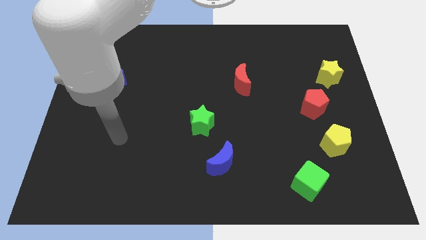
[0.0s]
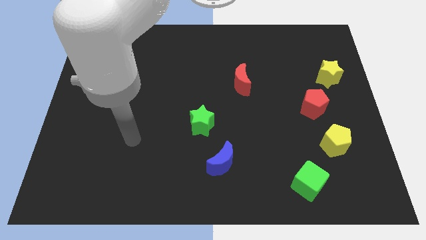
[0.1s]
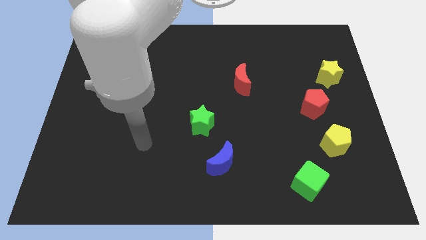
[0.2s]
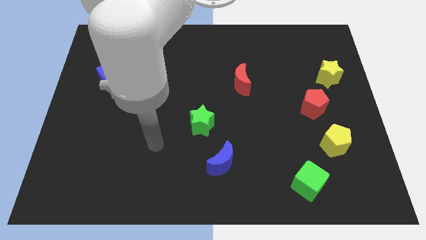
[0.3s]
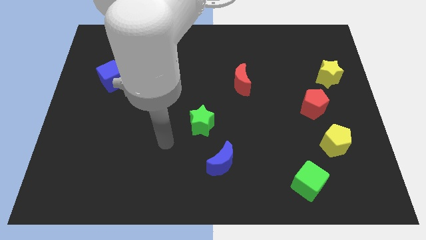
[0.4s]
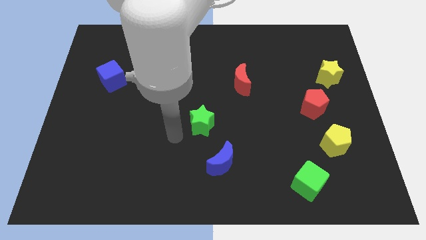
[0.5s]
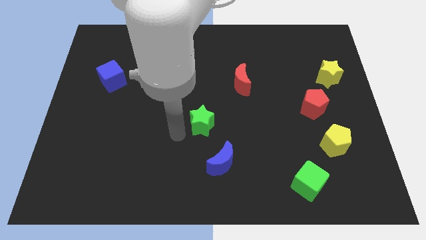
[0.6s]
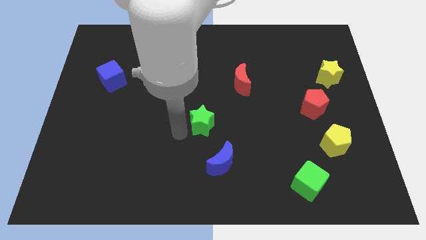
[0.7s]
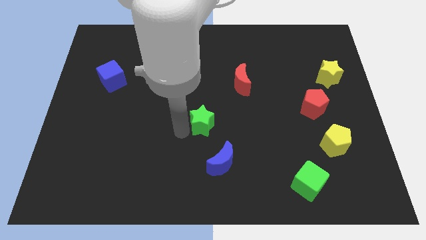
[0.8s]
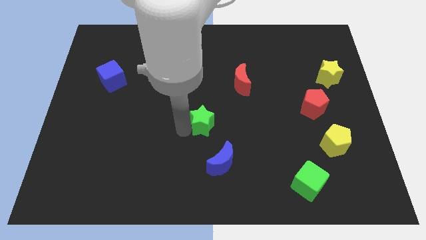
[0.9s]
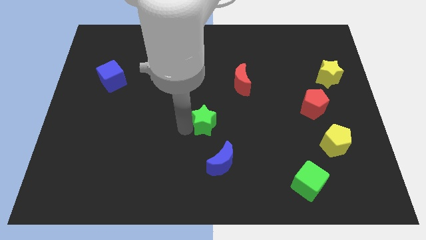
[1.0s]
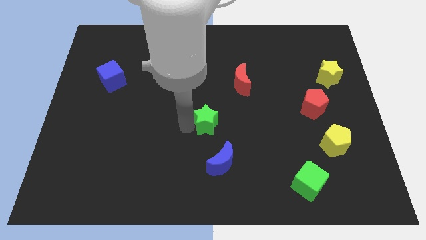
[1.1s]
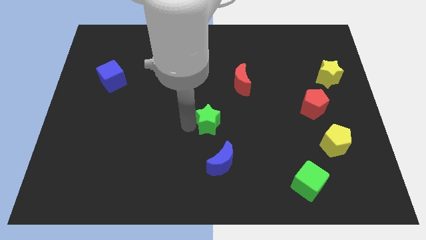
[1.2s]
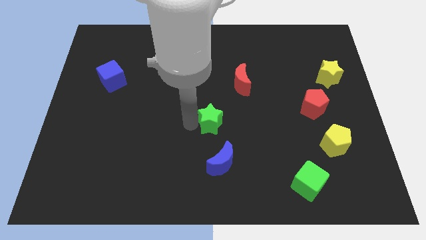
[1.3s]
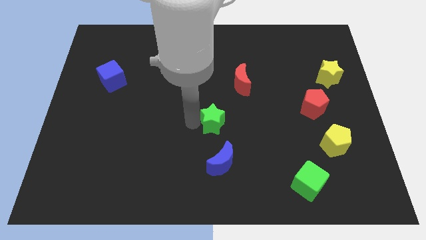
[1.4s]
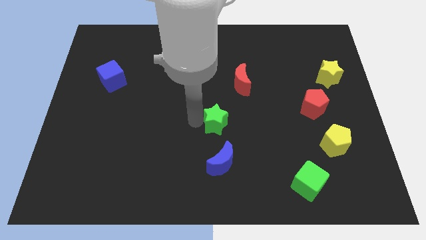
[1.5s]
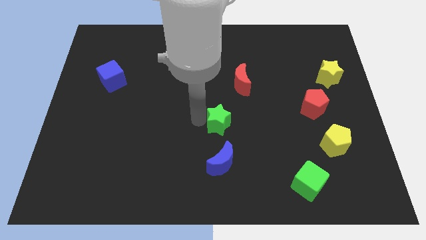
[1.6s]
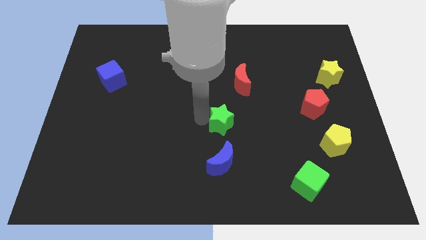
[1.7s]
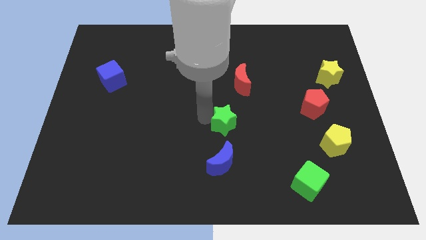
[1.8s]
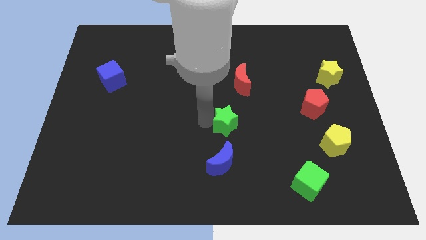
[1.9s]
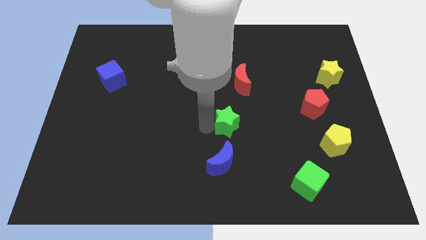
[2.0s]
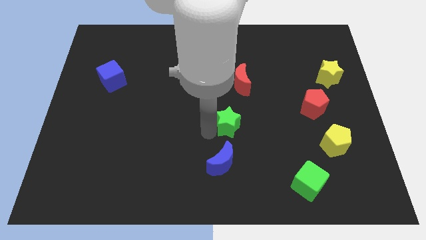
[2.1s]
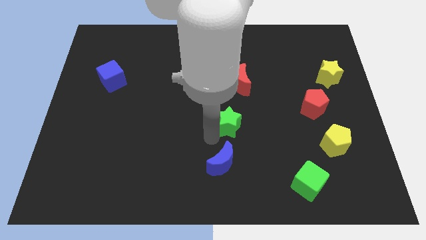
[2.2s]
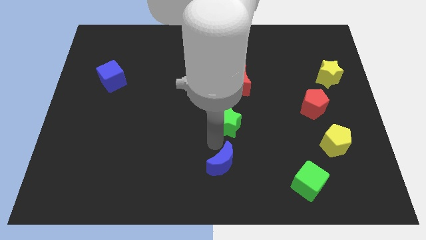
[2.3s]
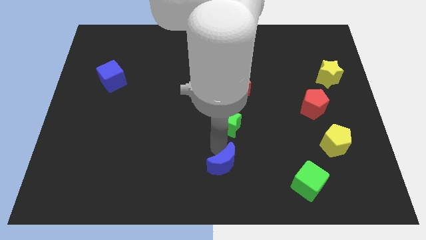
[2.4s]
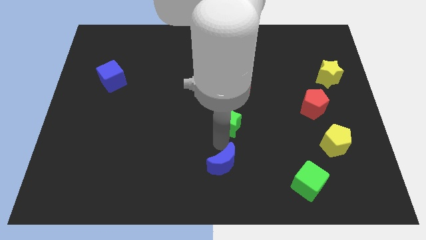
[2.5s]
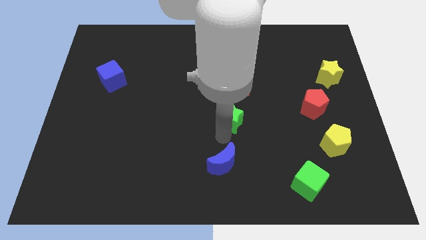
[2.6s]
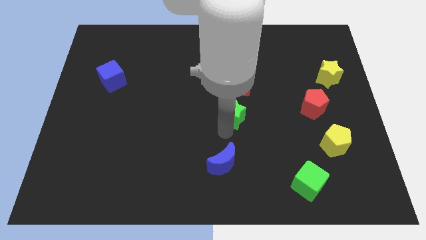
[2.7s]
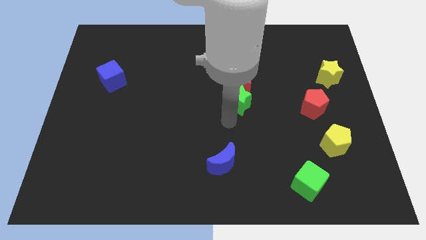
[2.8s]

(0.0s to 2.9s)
slightly slide the green star diagonally upwards and right

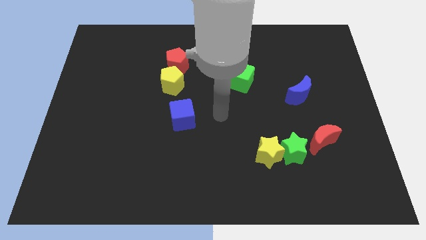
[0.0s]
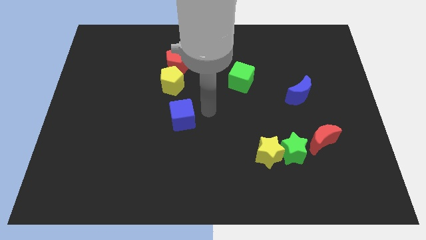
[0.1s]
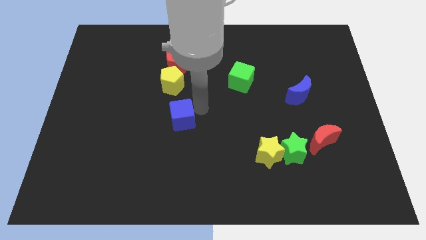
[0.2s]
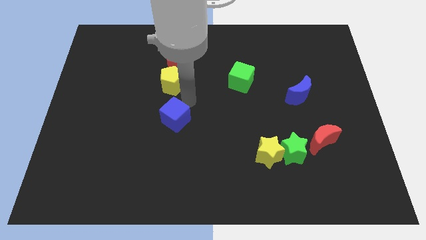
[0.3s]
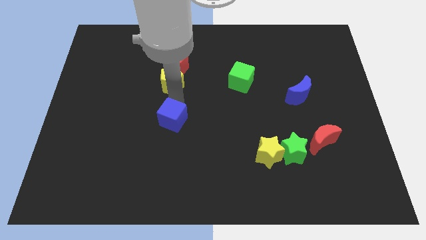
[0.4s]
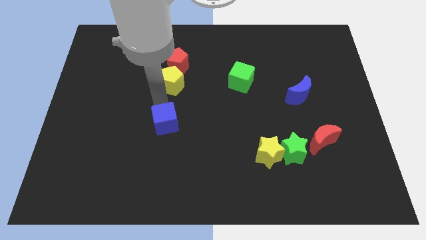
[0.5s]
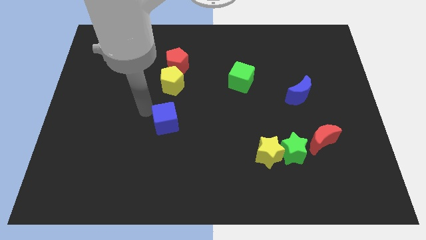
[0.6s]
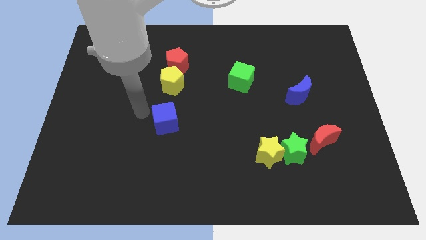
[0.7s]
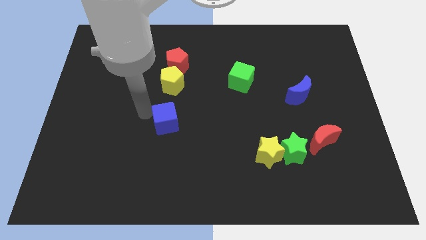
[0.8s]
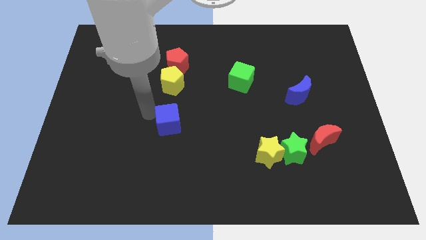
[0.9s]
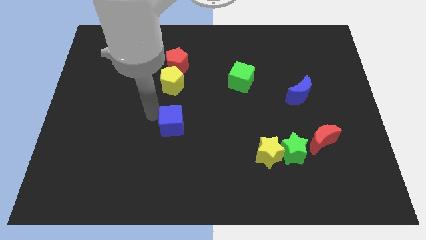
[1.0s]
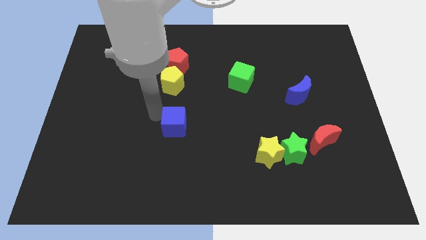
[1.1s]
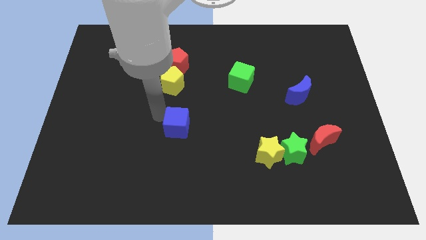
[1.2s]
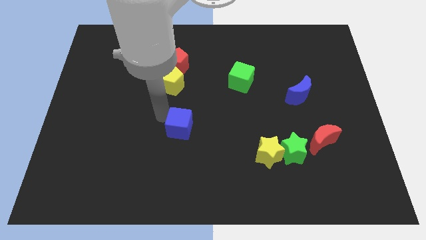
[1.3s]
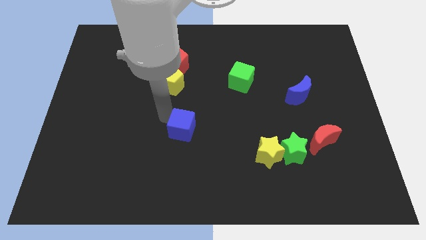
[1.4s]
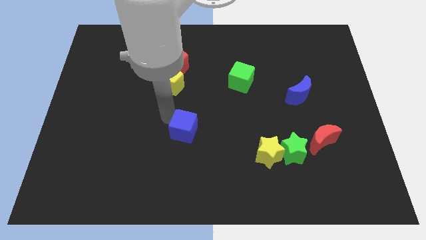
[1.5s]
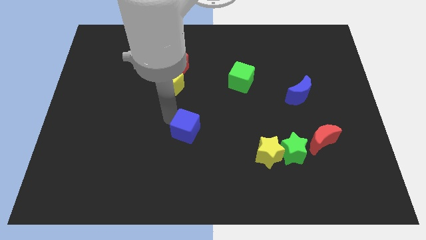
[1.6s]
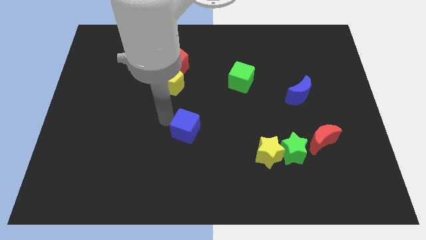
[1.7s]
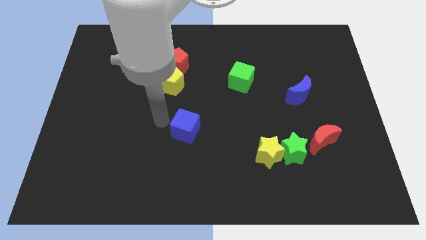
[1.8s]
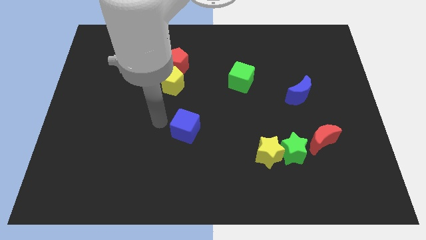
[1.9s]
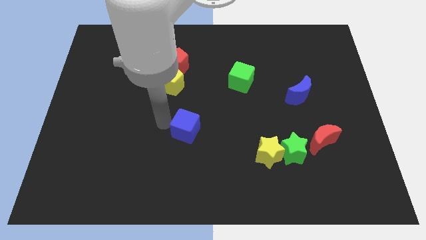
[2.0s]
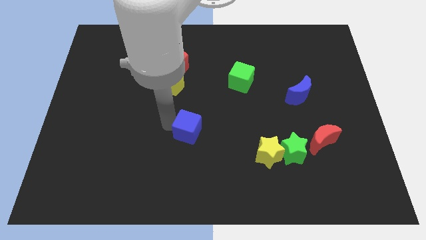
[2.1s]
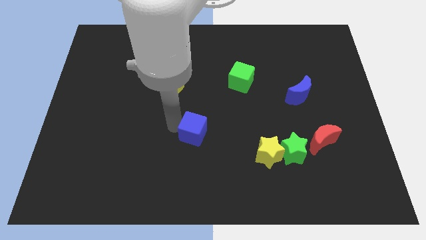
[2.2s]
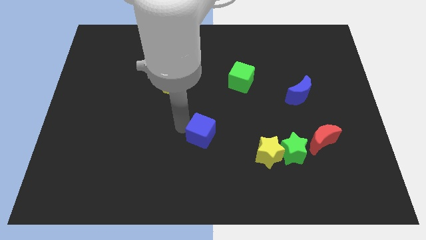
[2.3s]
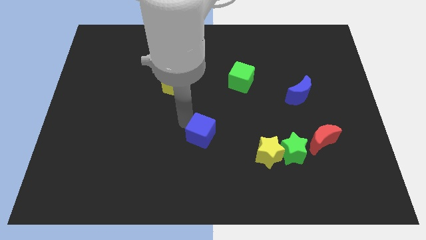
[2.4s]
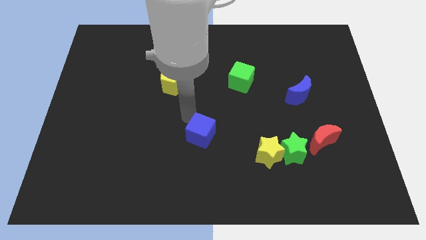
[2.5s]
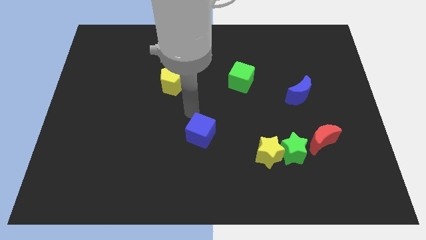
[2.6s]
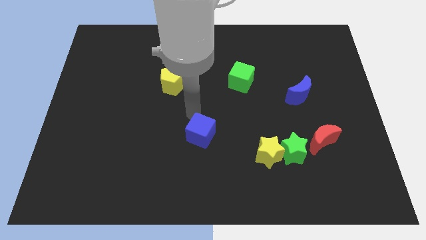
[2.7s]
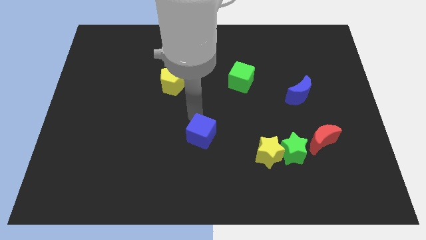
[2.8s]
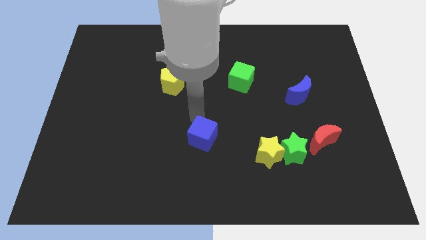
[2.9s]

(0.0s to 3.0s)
move the blue cube down and to the right a bit

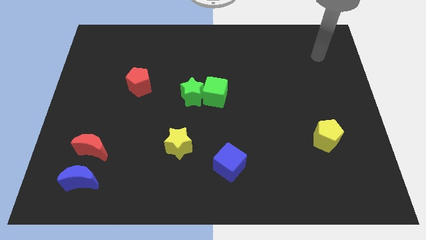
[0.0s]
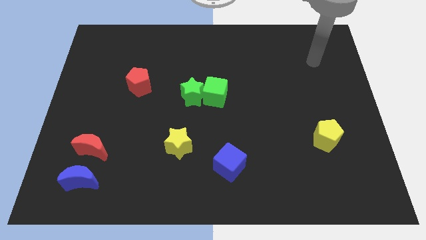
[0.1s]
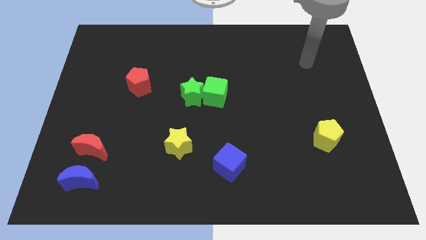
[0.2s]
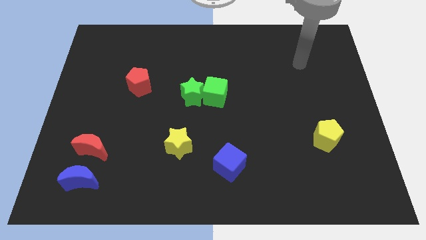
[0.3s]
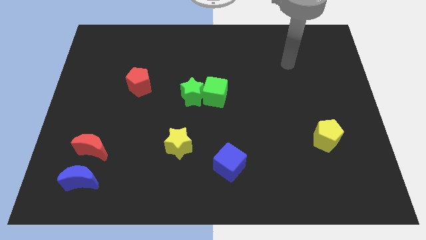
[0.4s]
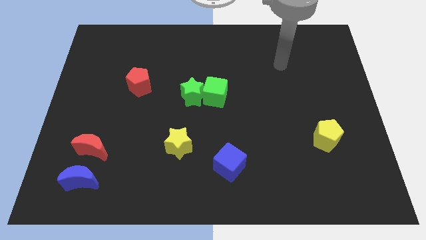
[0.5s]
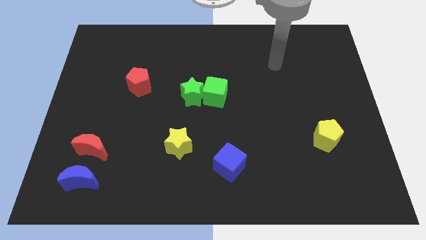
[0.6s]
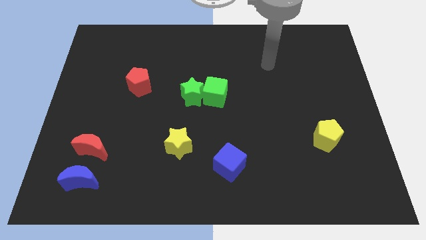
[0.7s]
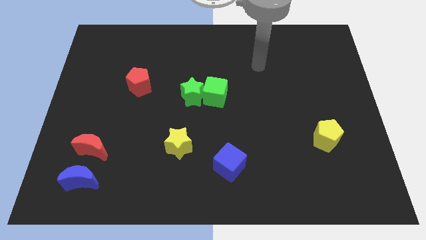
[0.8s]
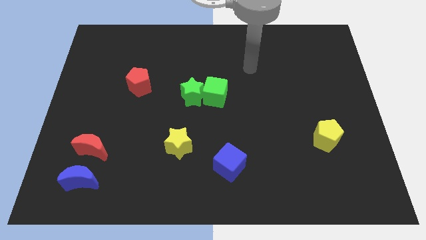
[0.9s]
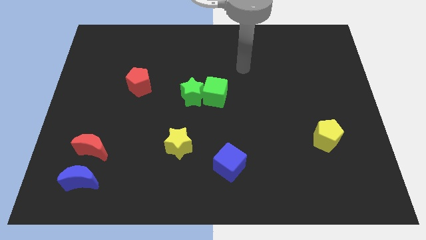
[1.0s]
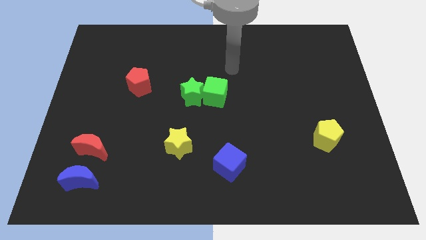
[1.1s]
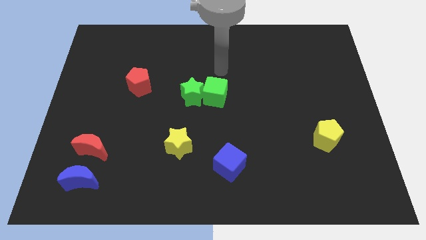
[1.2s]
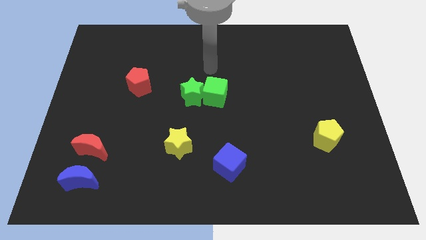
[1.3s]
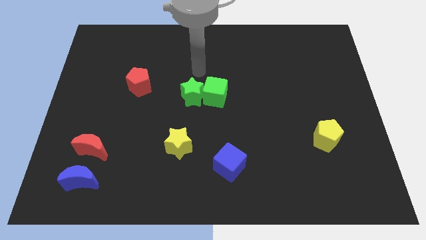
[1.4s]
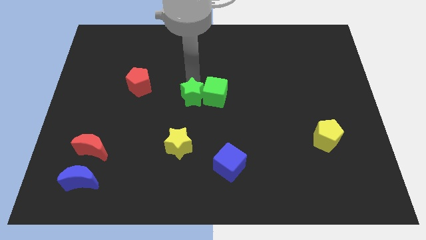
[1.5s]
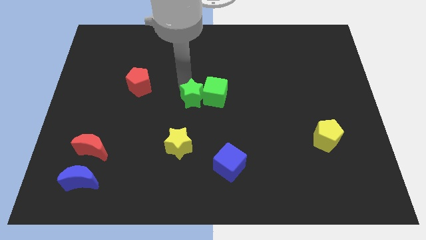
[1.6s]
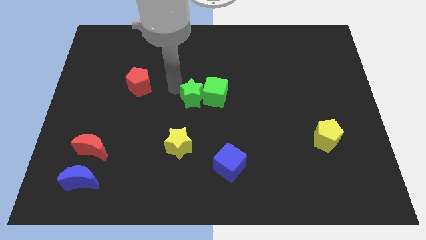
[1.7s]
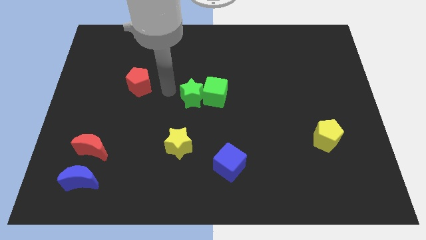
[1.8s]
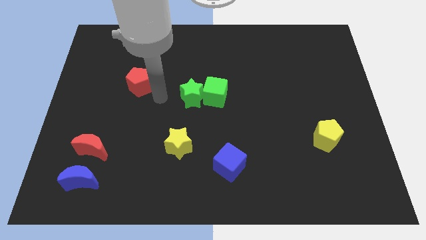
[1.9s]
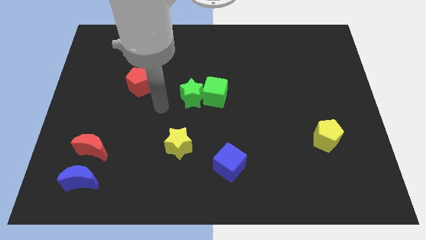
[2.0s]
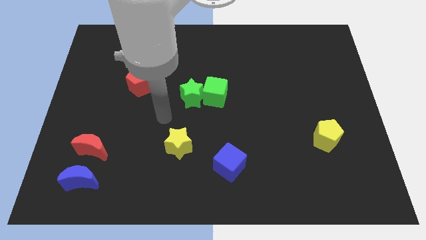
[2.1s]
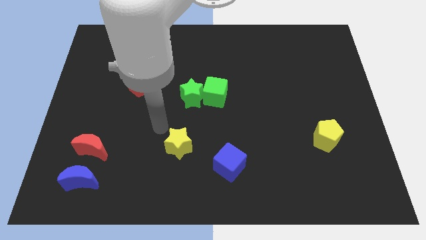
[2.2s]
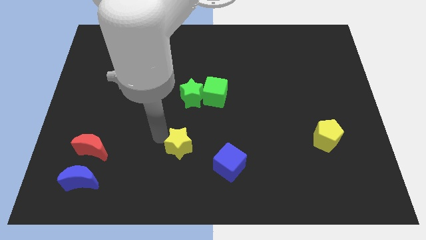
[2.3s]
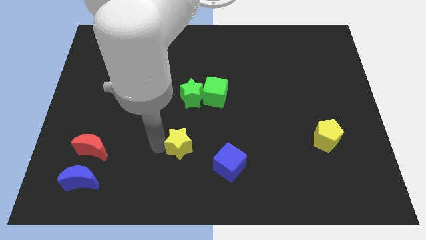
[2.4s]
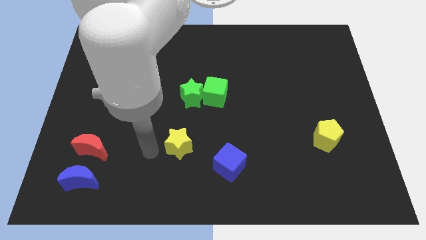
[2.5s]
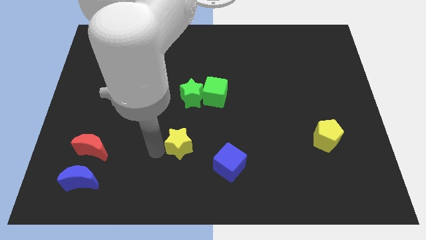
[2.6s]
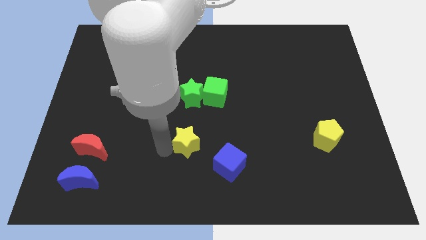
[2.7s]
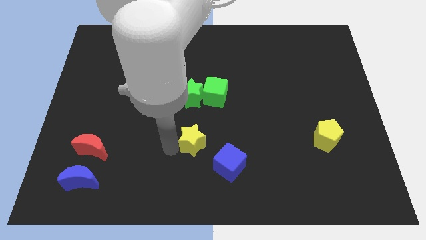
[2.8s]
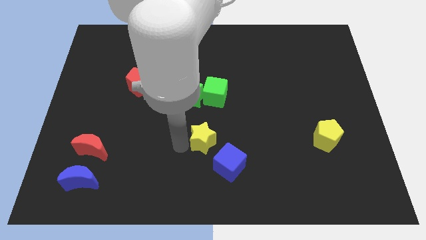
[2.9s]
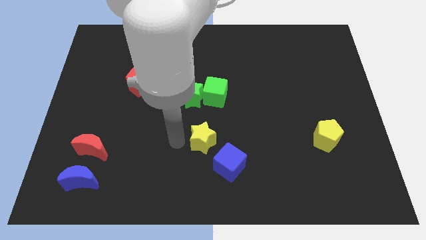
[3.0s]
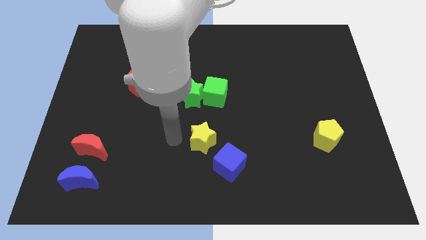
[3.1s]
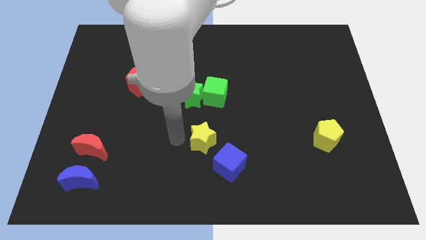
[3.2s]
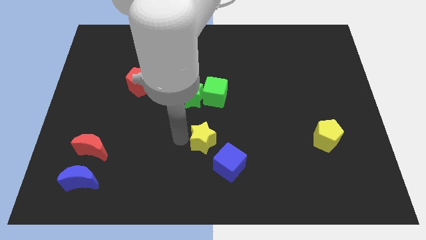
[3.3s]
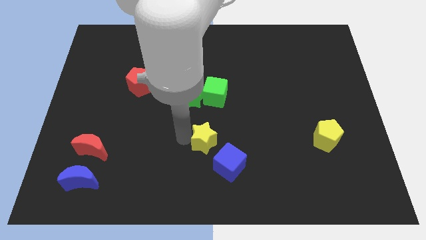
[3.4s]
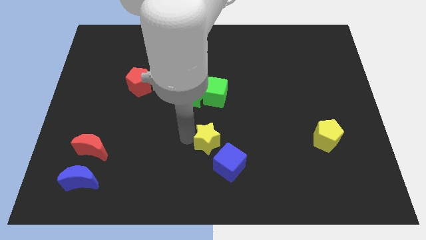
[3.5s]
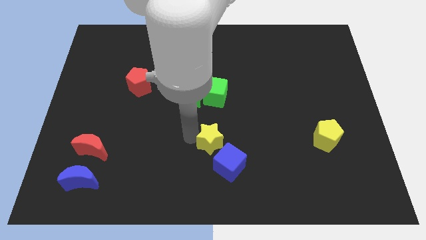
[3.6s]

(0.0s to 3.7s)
push the yellow star to the right a little
